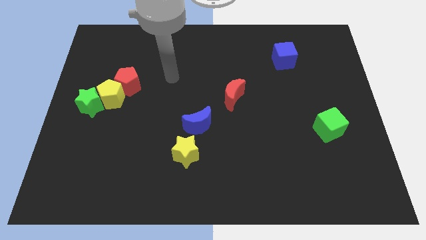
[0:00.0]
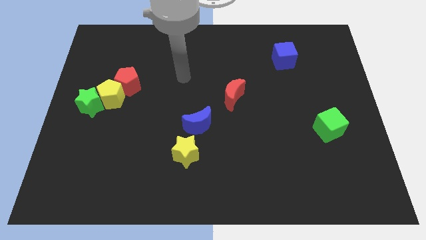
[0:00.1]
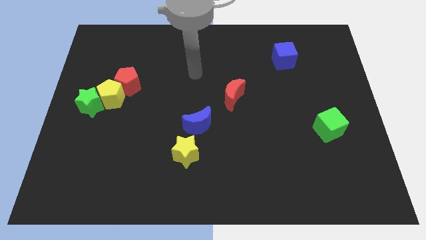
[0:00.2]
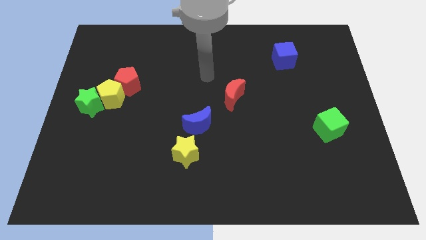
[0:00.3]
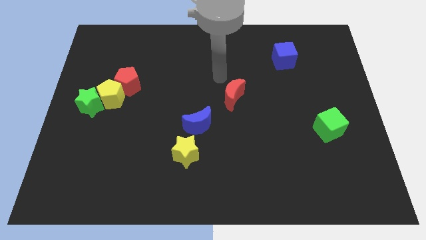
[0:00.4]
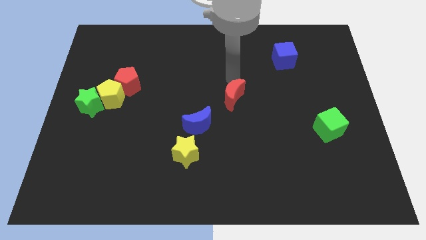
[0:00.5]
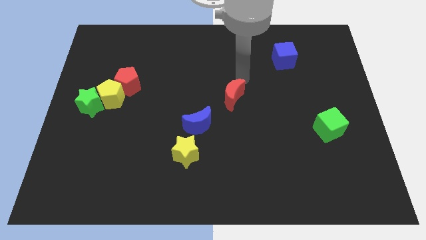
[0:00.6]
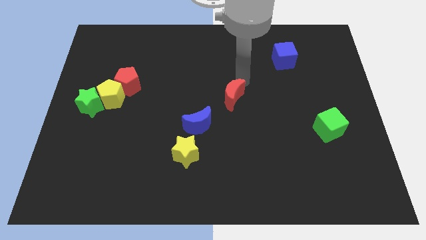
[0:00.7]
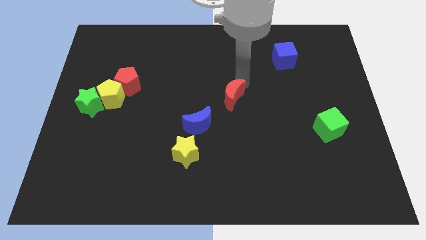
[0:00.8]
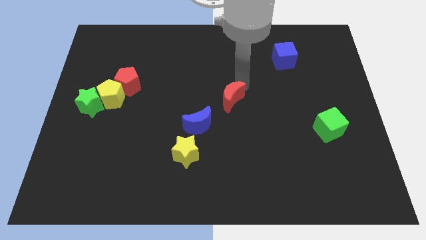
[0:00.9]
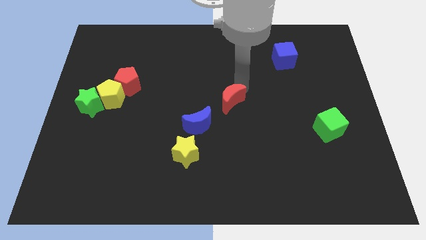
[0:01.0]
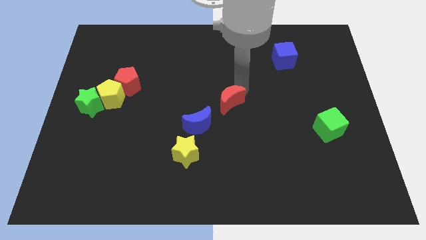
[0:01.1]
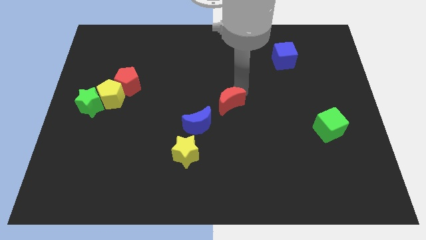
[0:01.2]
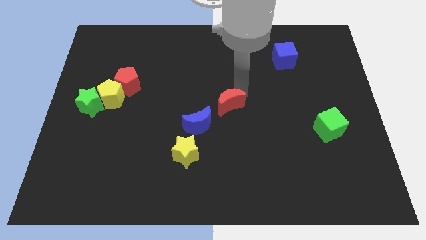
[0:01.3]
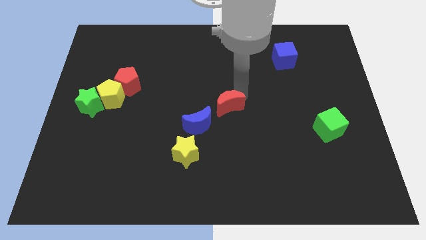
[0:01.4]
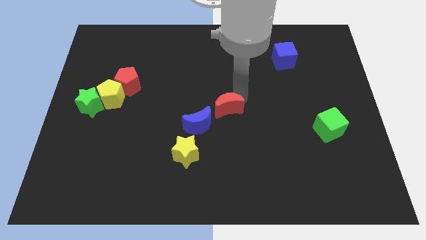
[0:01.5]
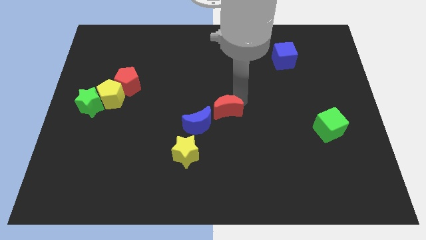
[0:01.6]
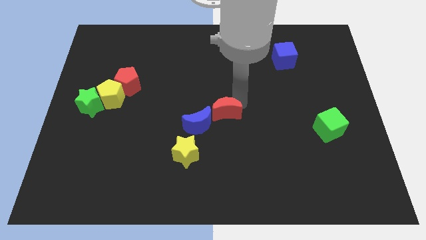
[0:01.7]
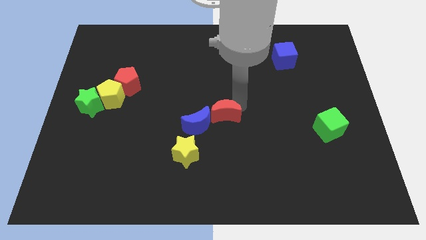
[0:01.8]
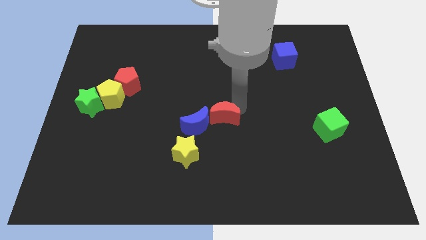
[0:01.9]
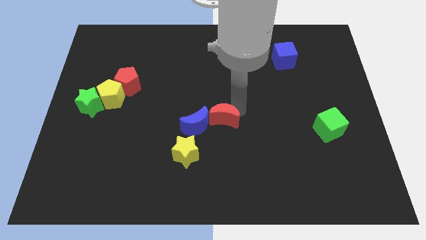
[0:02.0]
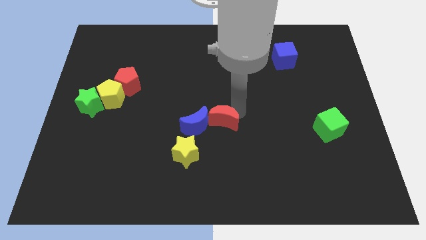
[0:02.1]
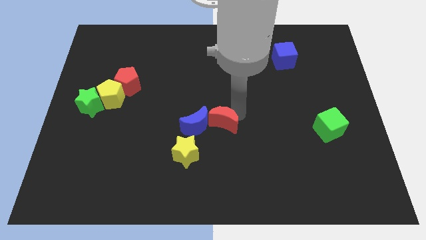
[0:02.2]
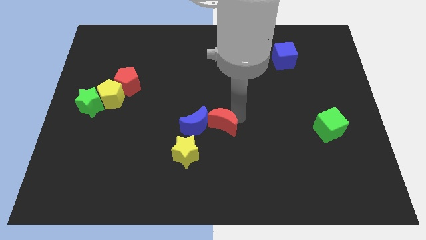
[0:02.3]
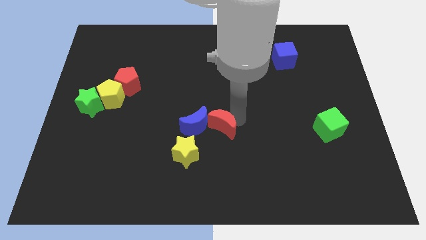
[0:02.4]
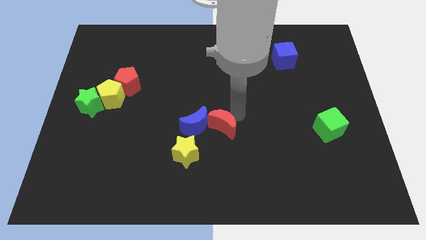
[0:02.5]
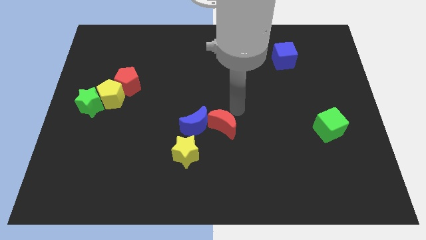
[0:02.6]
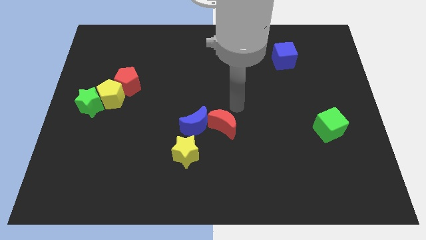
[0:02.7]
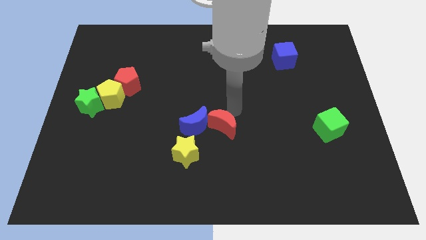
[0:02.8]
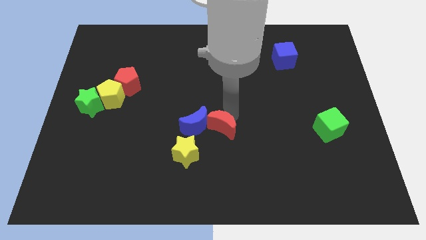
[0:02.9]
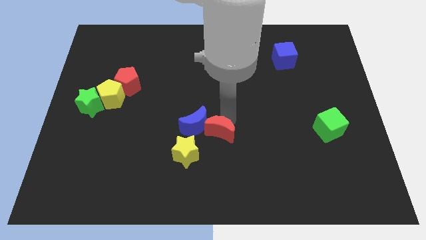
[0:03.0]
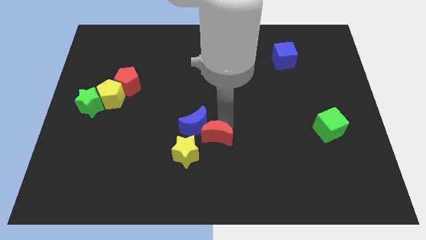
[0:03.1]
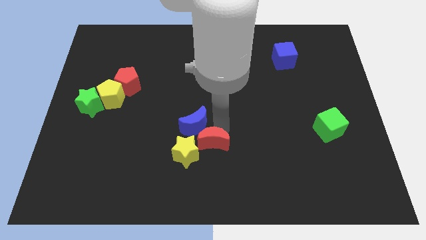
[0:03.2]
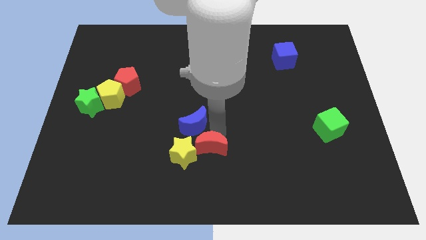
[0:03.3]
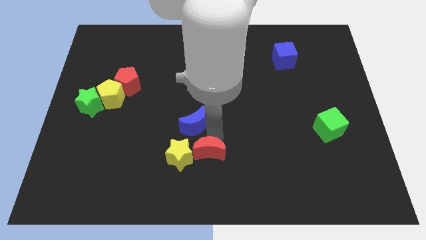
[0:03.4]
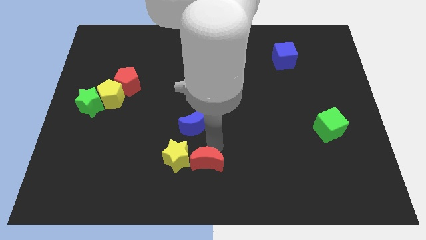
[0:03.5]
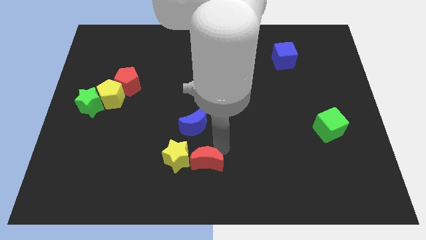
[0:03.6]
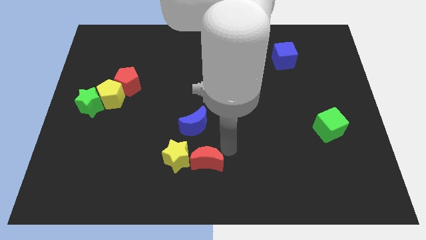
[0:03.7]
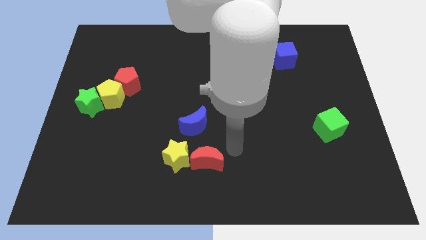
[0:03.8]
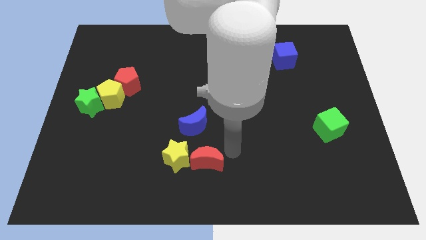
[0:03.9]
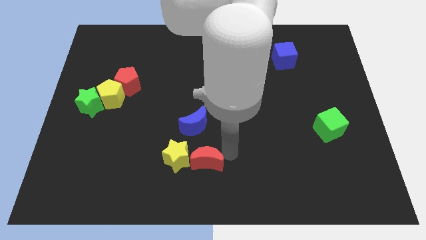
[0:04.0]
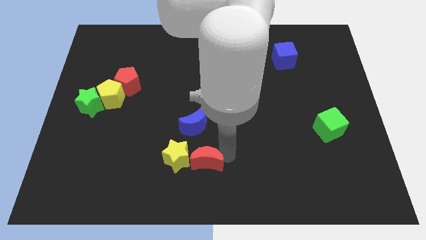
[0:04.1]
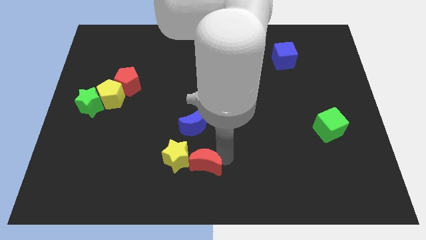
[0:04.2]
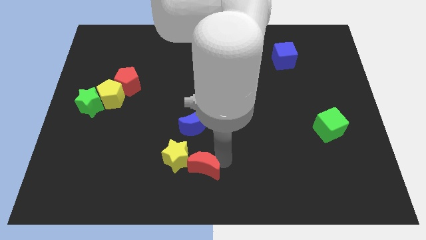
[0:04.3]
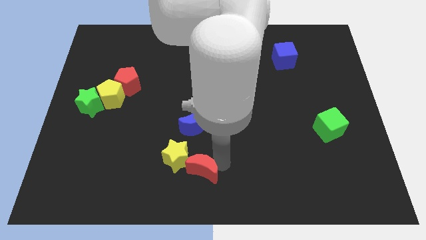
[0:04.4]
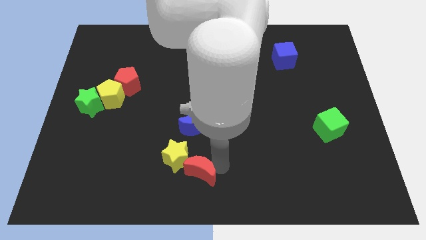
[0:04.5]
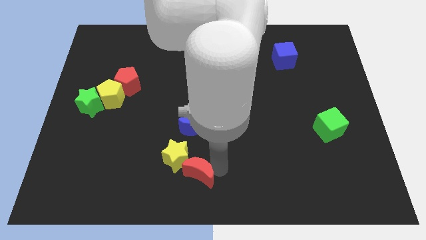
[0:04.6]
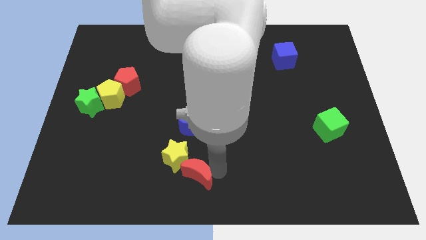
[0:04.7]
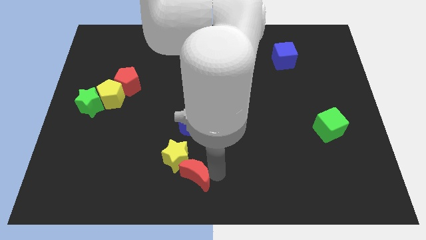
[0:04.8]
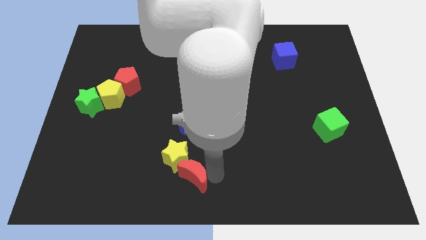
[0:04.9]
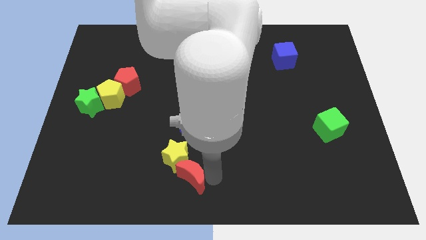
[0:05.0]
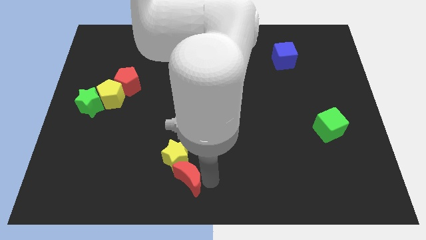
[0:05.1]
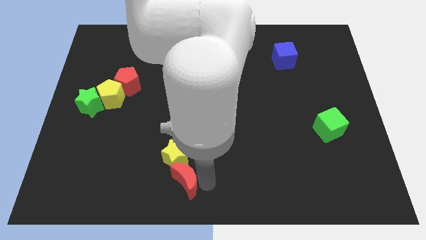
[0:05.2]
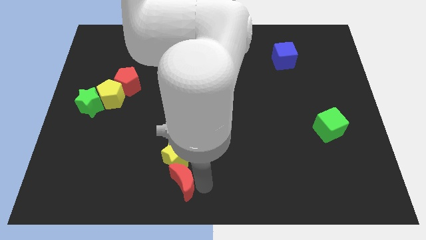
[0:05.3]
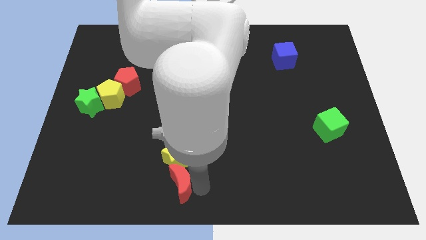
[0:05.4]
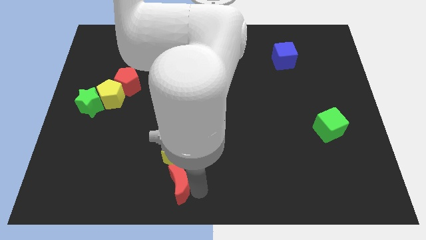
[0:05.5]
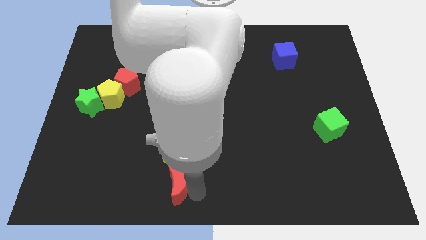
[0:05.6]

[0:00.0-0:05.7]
move the red moon diagonally down and to the left of the yellow star

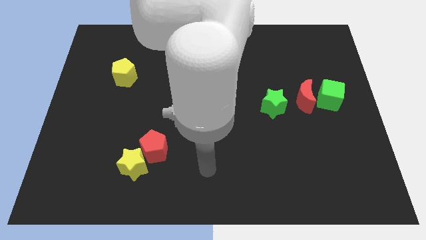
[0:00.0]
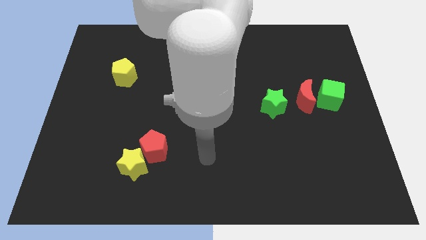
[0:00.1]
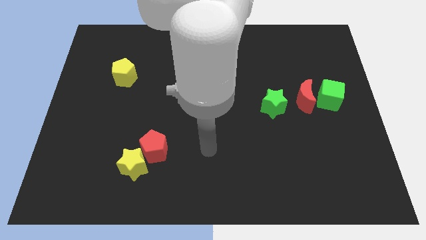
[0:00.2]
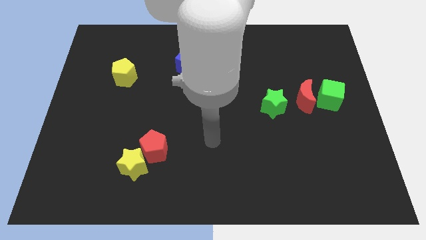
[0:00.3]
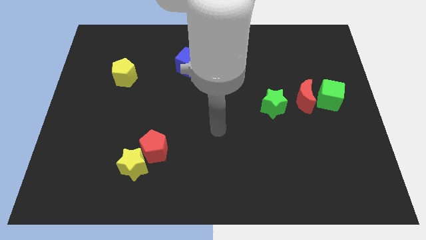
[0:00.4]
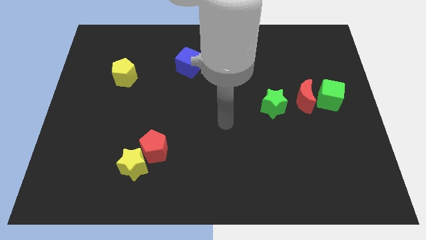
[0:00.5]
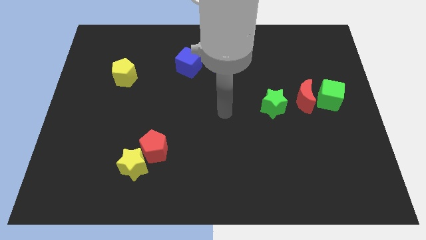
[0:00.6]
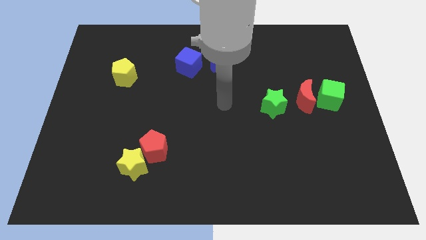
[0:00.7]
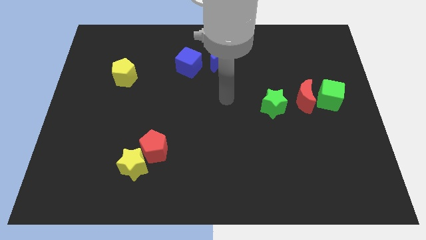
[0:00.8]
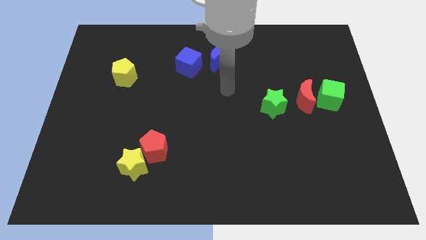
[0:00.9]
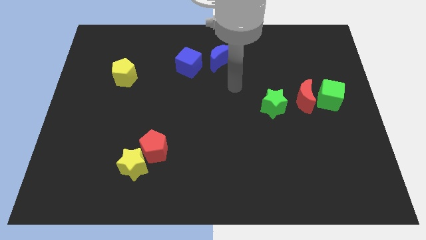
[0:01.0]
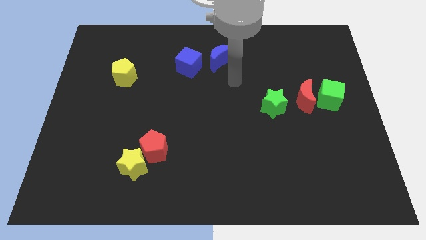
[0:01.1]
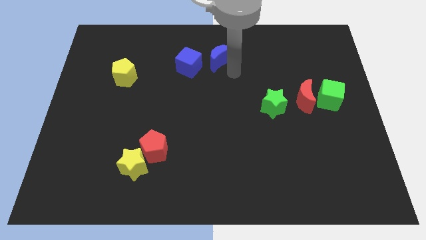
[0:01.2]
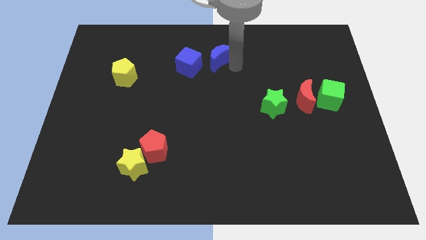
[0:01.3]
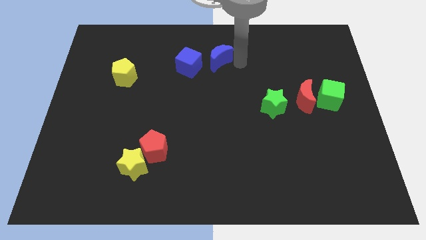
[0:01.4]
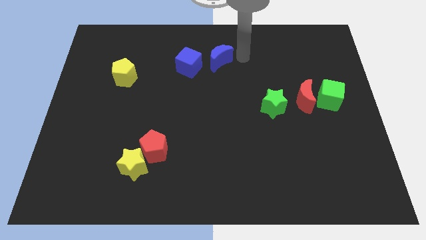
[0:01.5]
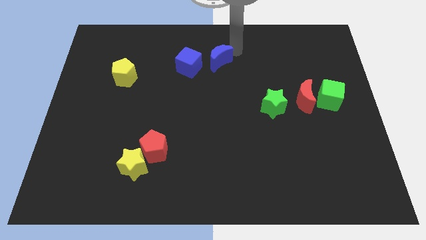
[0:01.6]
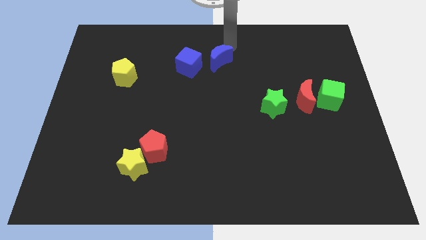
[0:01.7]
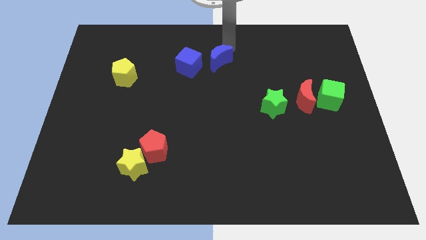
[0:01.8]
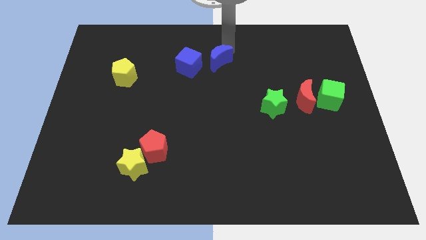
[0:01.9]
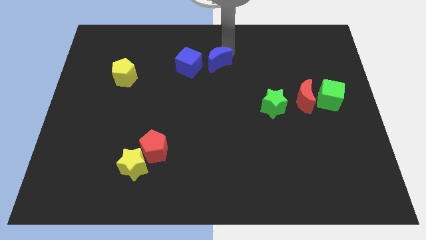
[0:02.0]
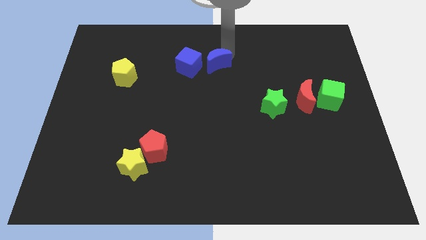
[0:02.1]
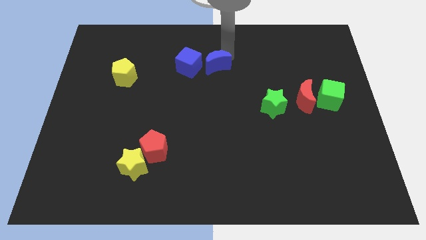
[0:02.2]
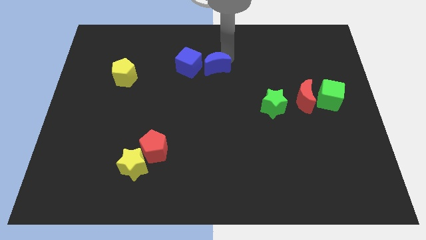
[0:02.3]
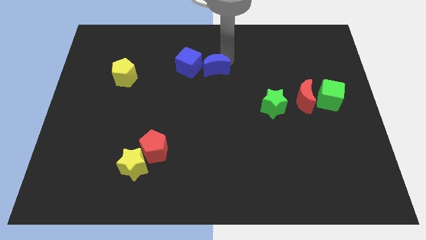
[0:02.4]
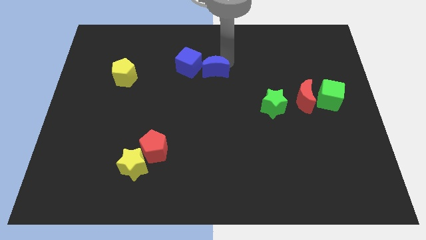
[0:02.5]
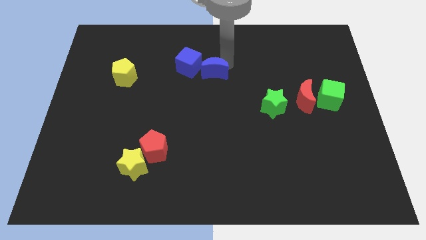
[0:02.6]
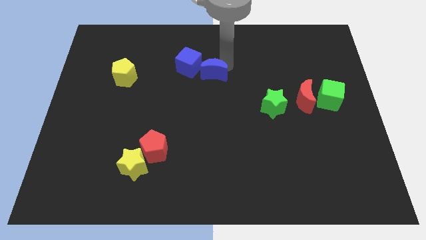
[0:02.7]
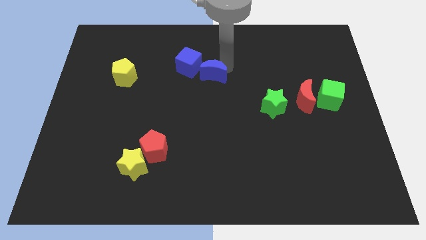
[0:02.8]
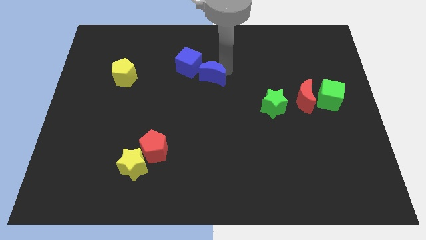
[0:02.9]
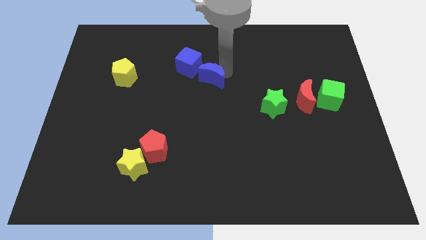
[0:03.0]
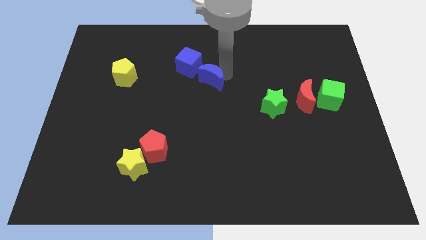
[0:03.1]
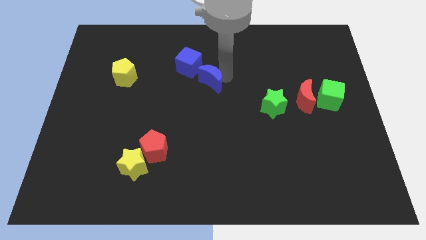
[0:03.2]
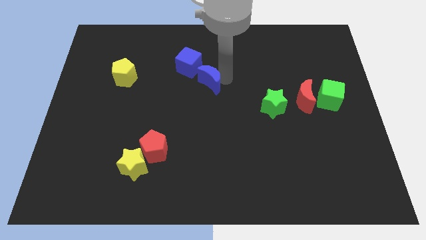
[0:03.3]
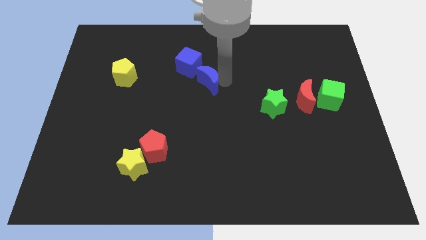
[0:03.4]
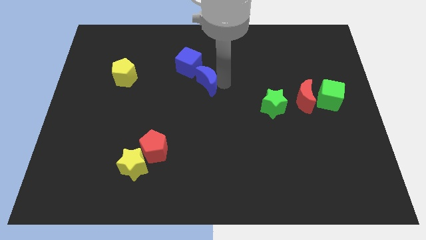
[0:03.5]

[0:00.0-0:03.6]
slide the blue moon to the bottom side of the blue cube
